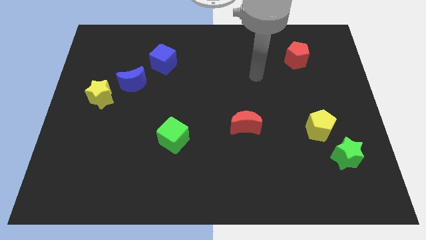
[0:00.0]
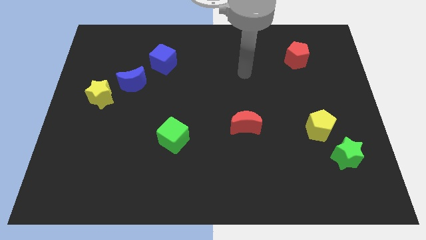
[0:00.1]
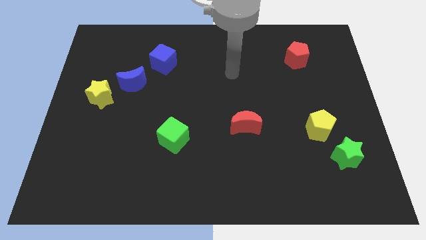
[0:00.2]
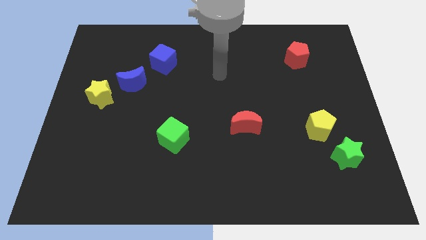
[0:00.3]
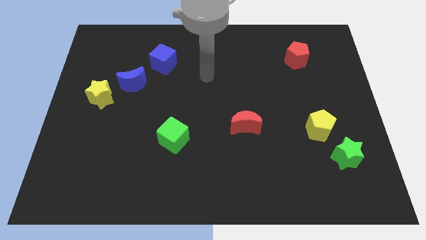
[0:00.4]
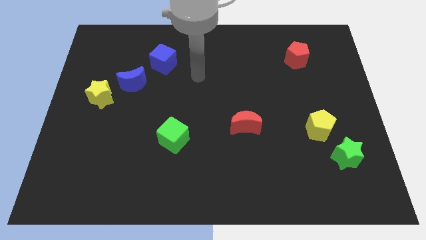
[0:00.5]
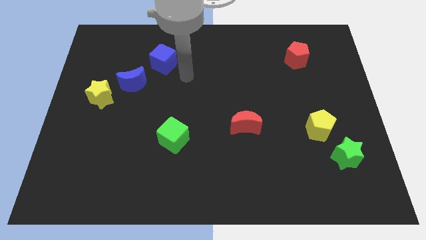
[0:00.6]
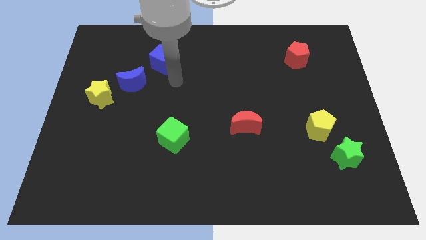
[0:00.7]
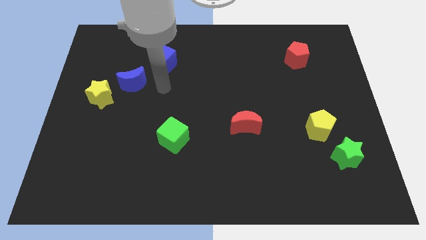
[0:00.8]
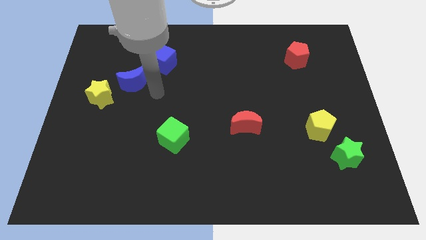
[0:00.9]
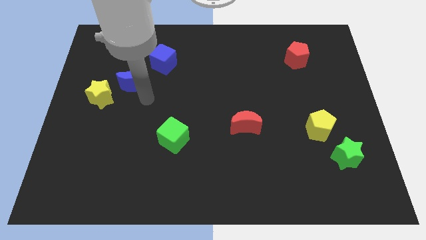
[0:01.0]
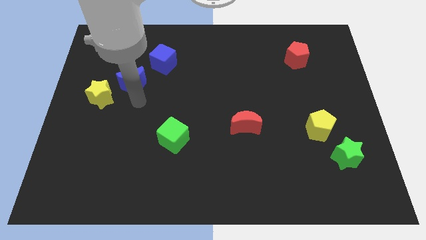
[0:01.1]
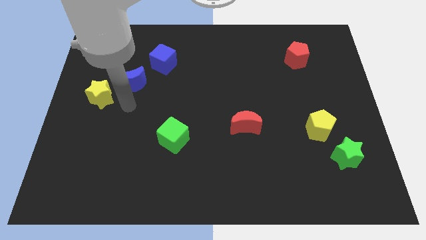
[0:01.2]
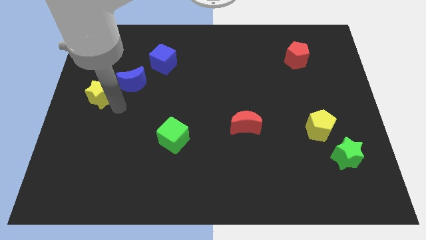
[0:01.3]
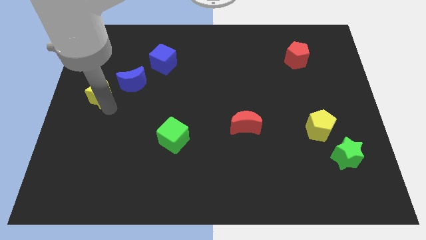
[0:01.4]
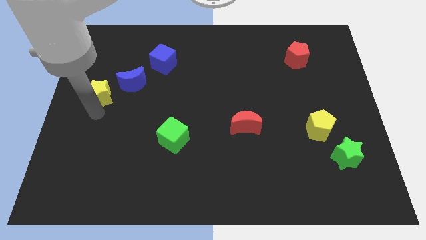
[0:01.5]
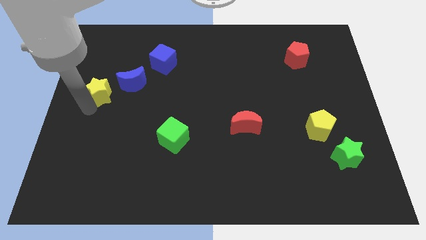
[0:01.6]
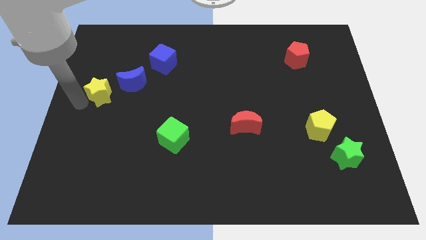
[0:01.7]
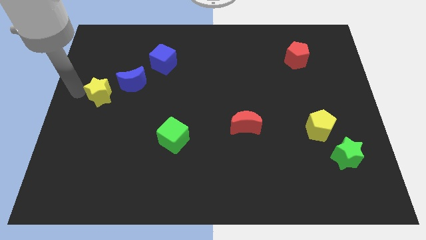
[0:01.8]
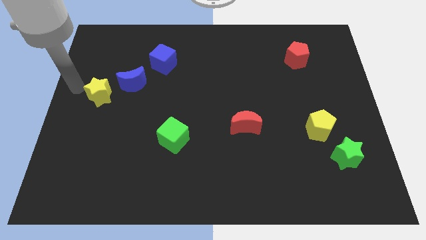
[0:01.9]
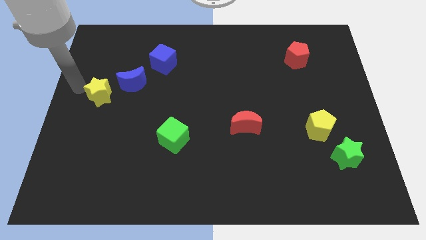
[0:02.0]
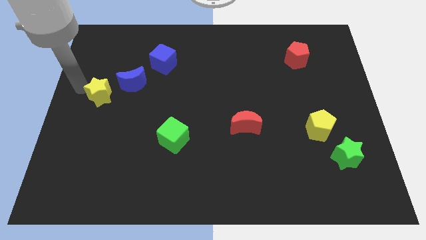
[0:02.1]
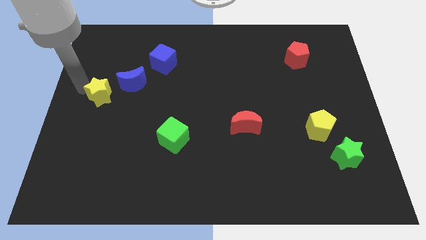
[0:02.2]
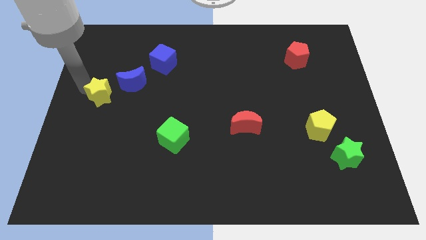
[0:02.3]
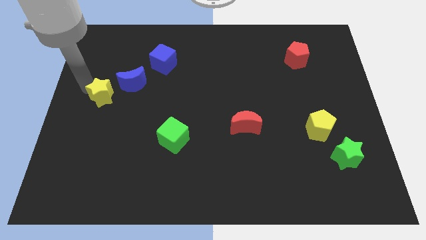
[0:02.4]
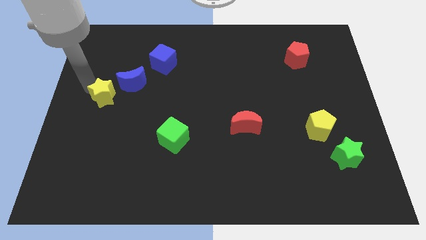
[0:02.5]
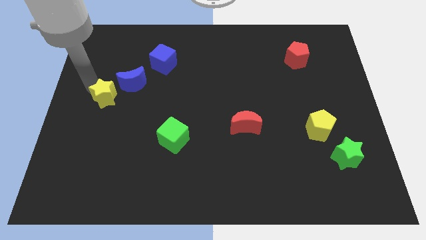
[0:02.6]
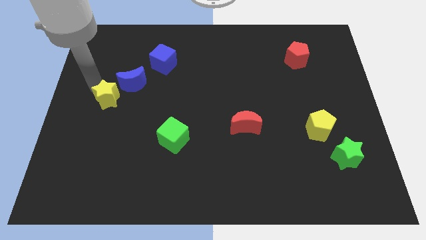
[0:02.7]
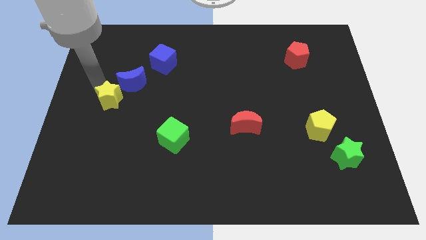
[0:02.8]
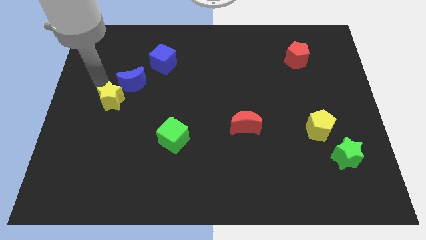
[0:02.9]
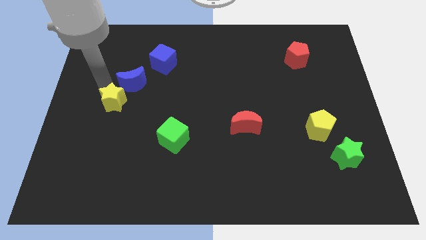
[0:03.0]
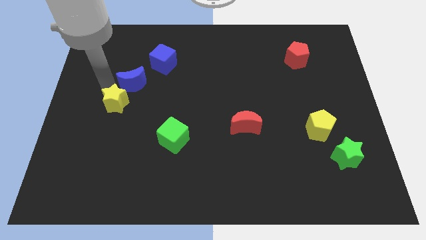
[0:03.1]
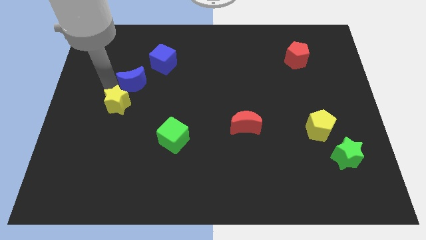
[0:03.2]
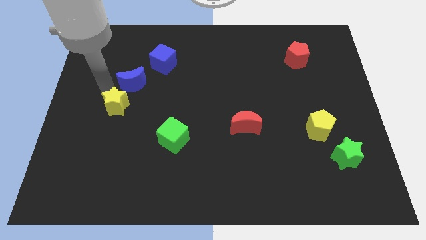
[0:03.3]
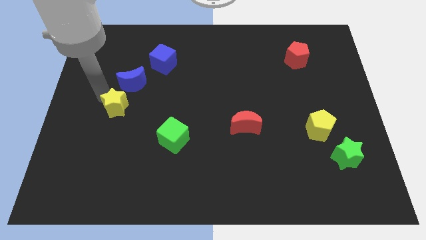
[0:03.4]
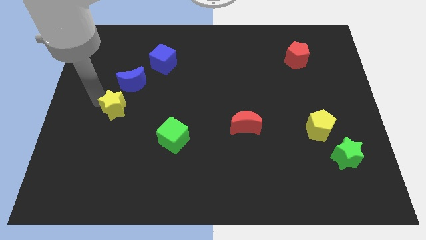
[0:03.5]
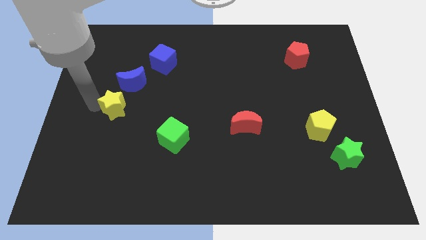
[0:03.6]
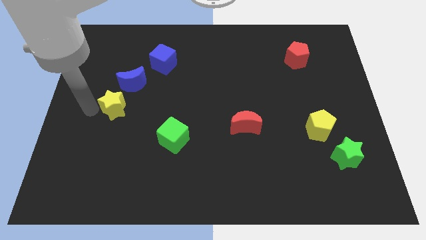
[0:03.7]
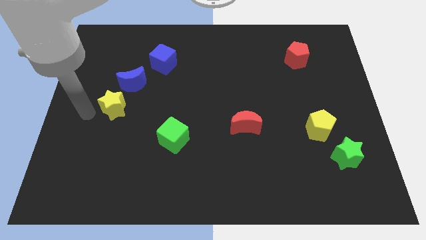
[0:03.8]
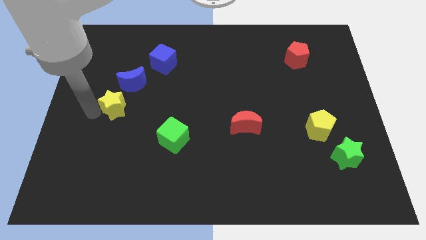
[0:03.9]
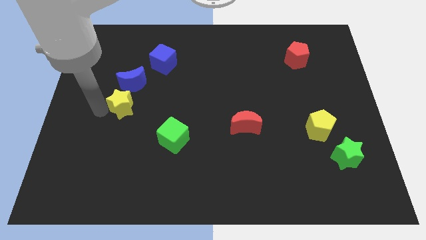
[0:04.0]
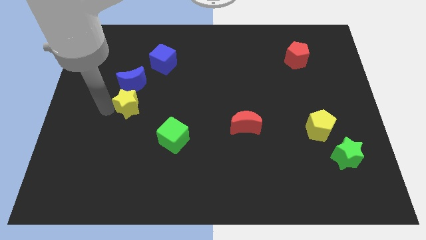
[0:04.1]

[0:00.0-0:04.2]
slide the yellow star right somewhat

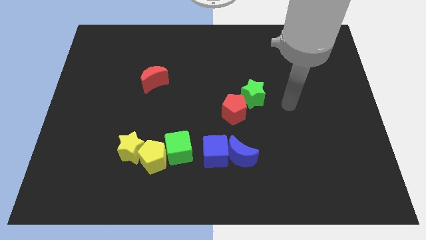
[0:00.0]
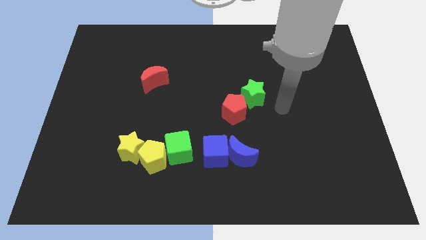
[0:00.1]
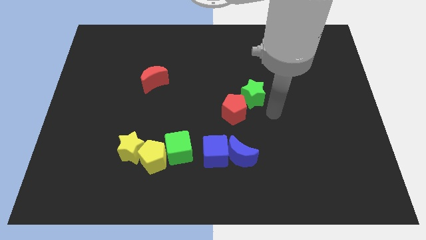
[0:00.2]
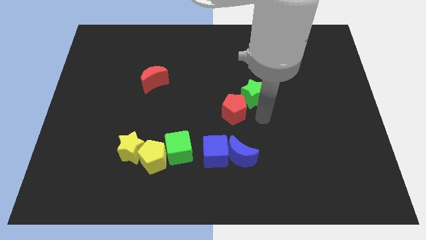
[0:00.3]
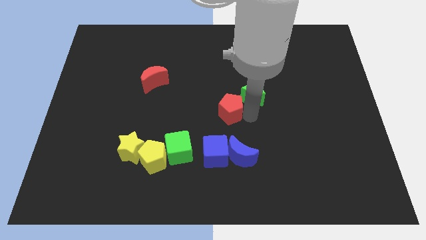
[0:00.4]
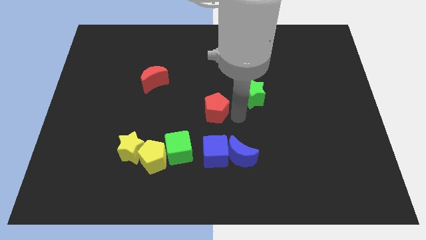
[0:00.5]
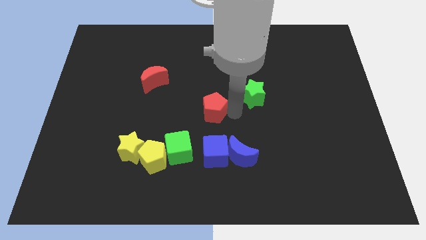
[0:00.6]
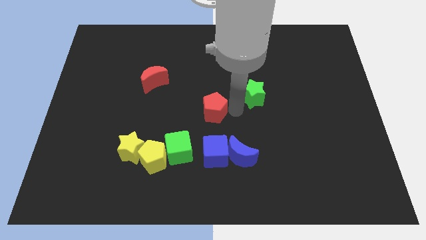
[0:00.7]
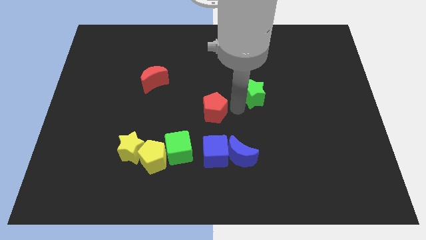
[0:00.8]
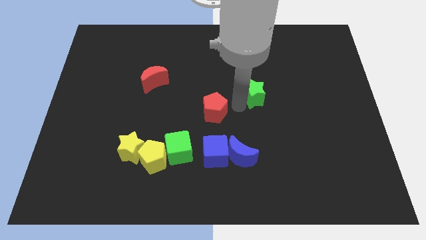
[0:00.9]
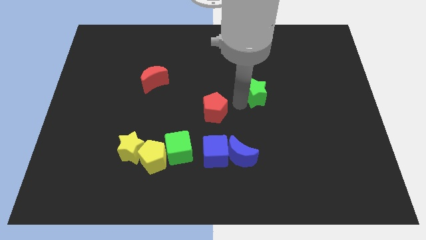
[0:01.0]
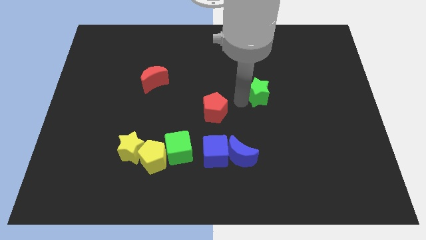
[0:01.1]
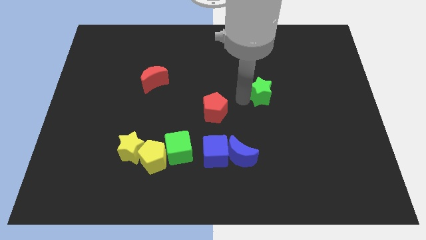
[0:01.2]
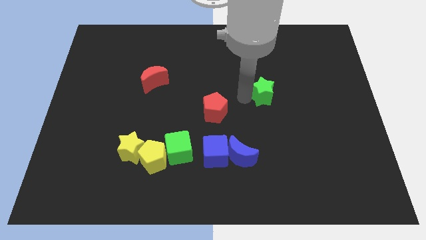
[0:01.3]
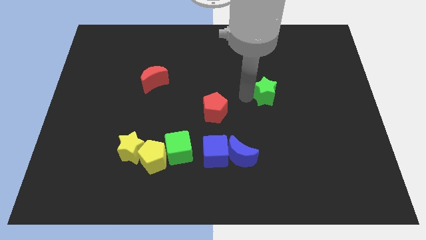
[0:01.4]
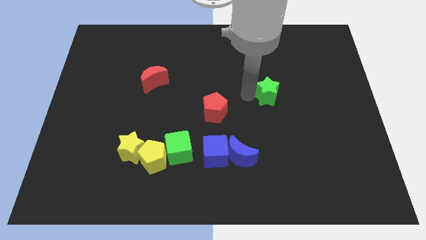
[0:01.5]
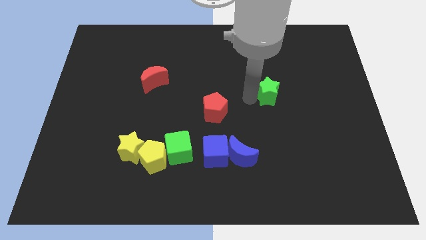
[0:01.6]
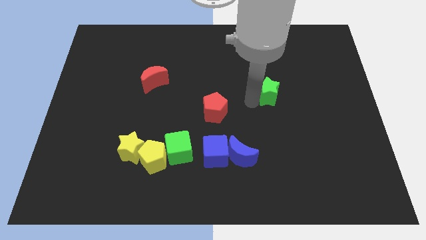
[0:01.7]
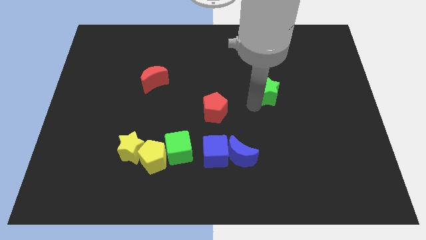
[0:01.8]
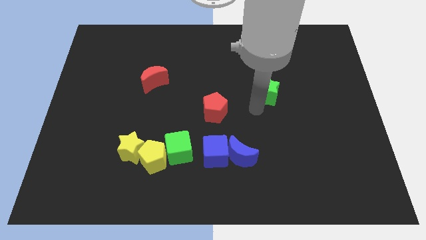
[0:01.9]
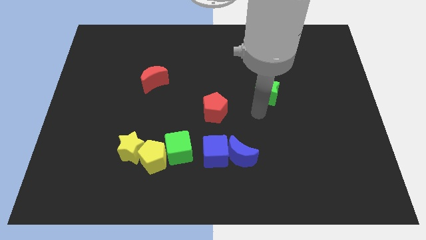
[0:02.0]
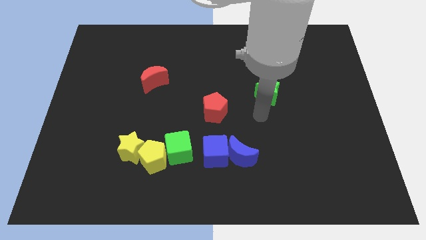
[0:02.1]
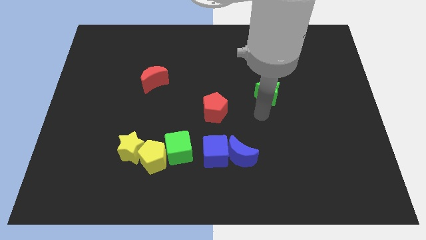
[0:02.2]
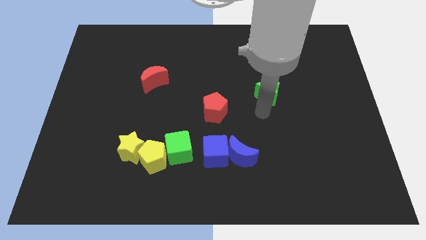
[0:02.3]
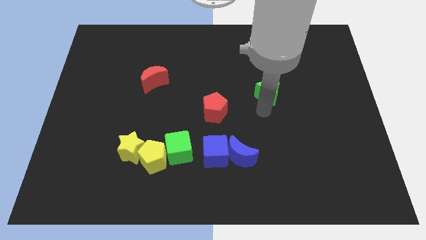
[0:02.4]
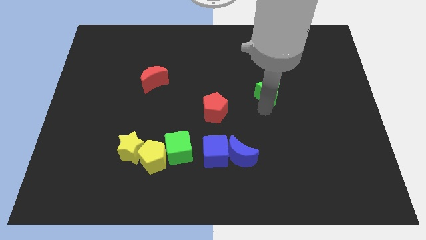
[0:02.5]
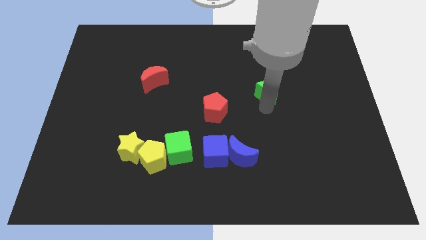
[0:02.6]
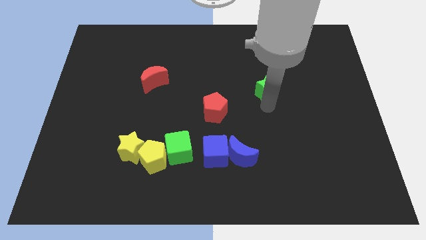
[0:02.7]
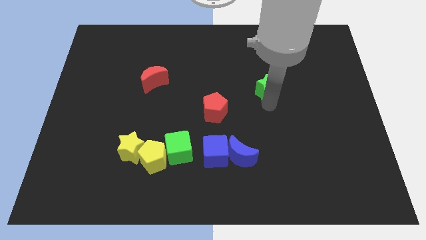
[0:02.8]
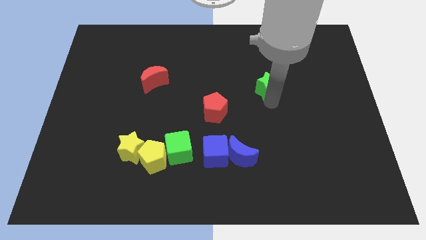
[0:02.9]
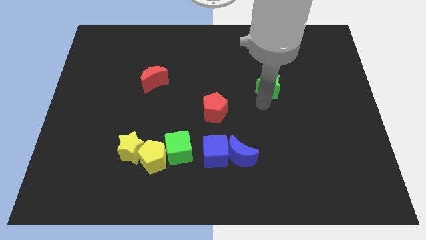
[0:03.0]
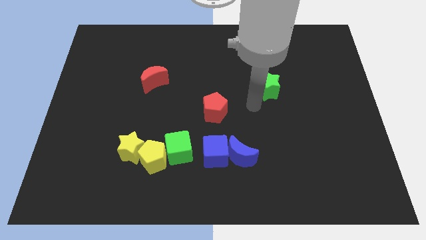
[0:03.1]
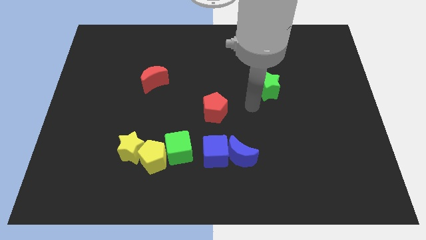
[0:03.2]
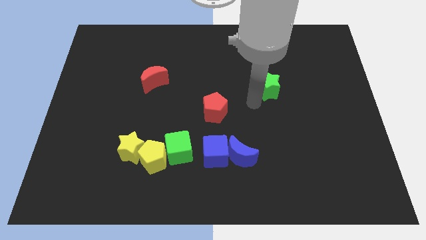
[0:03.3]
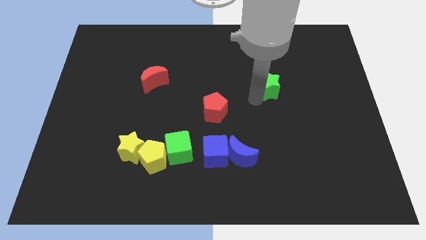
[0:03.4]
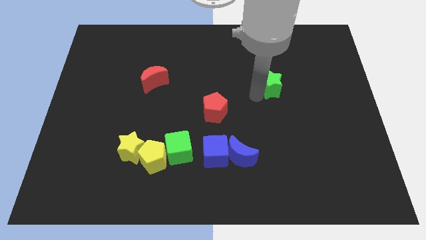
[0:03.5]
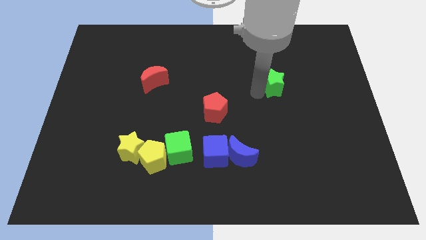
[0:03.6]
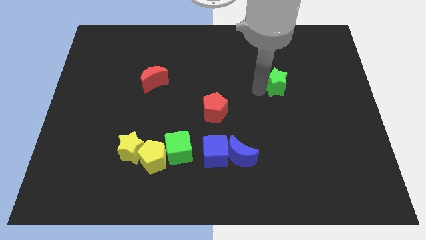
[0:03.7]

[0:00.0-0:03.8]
slide the green star a little upwards and to the right
